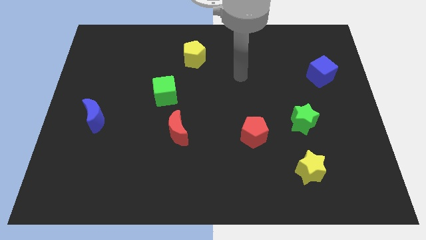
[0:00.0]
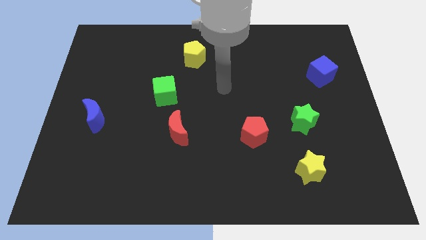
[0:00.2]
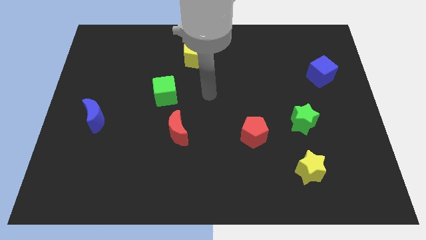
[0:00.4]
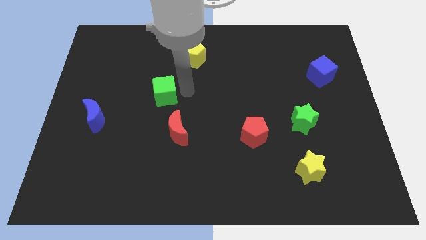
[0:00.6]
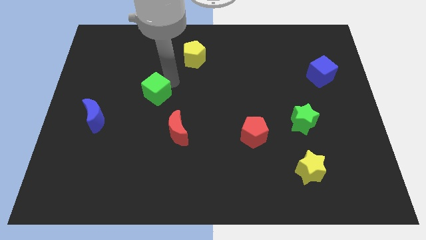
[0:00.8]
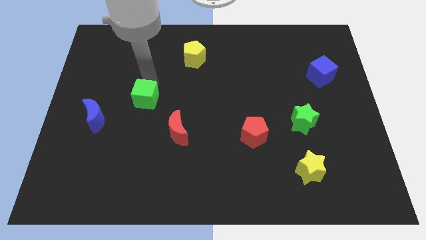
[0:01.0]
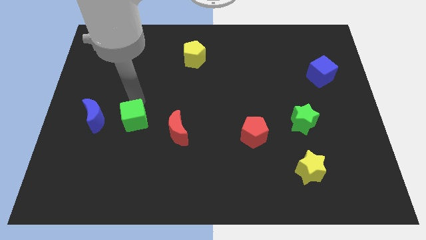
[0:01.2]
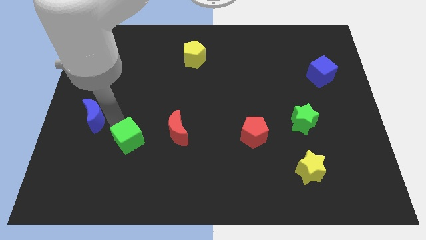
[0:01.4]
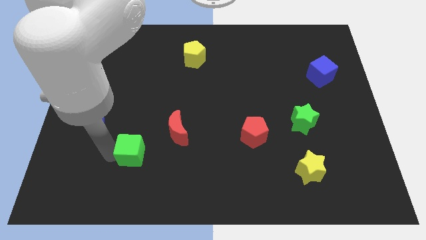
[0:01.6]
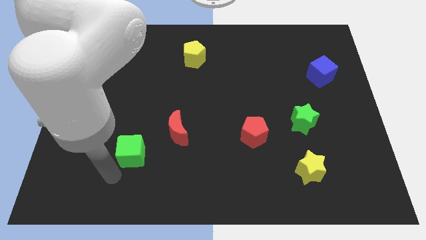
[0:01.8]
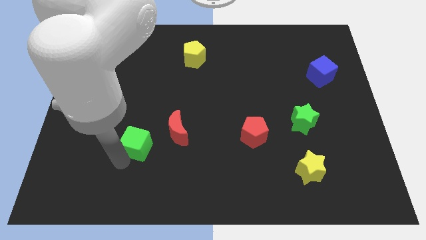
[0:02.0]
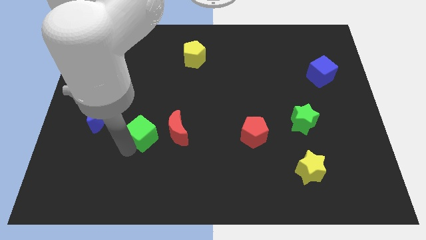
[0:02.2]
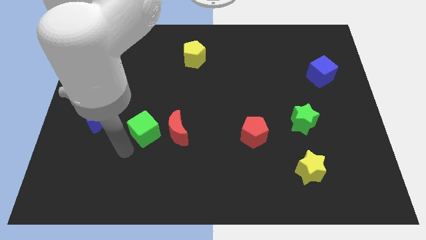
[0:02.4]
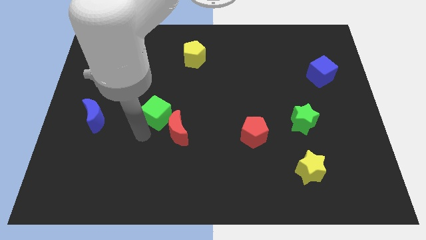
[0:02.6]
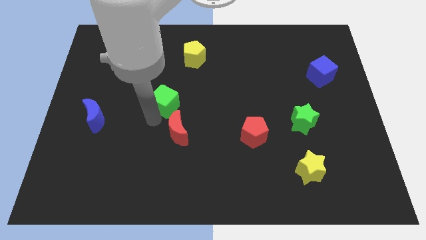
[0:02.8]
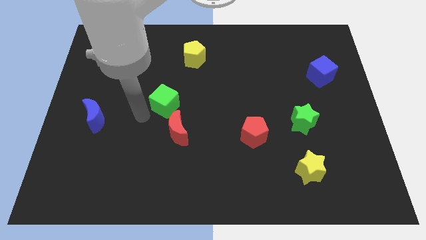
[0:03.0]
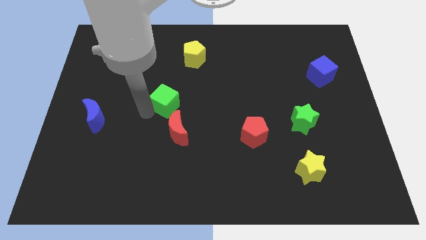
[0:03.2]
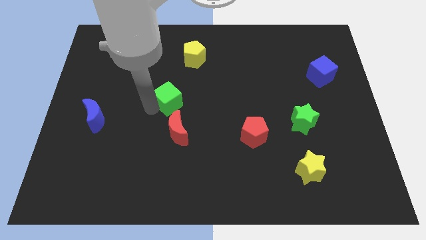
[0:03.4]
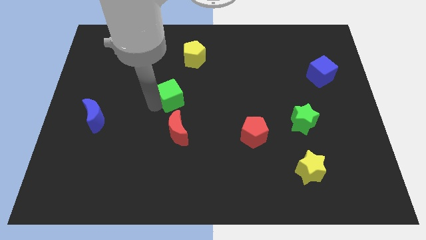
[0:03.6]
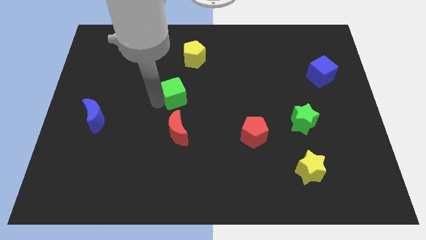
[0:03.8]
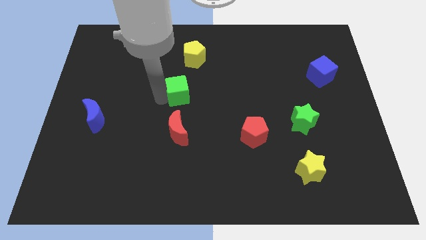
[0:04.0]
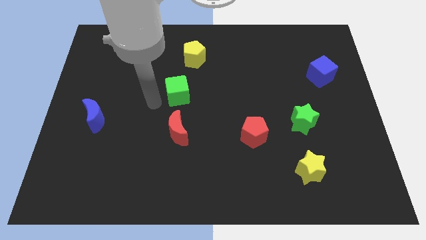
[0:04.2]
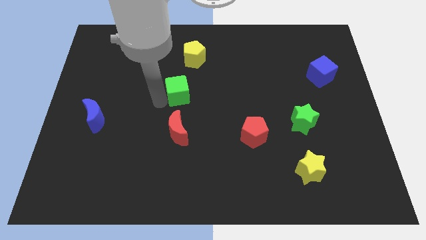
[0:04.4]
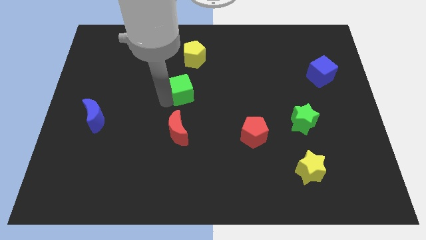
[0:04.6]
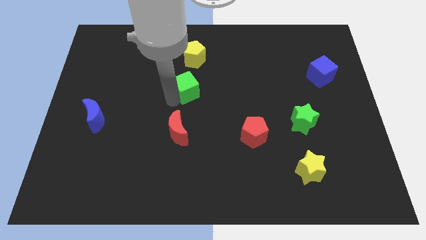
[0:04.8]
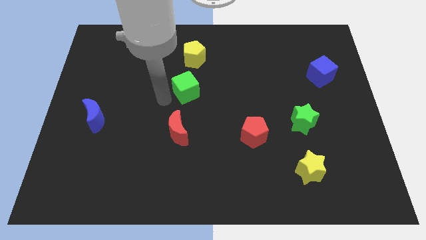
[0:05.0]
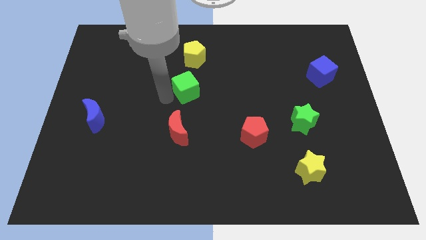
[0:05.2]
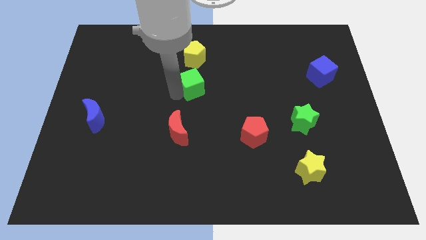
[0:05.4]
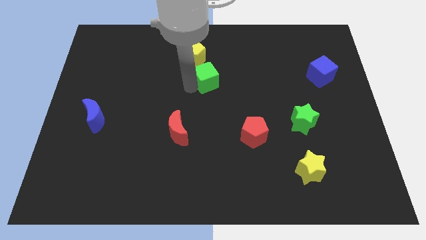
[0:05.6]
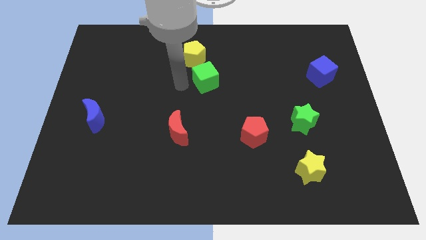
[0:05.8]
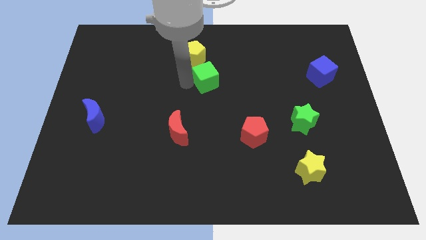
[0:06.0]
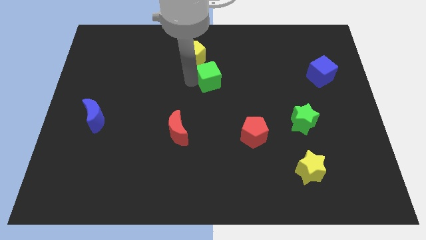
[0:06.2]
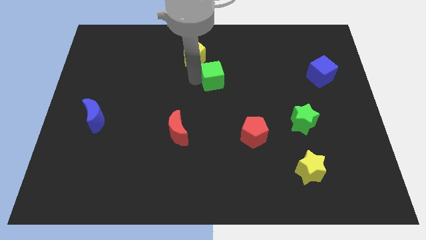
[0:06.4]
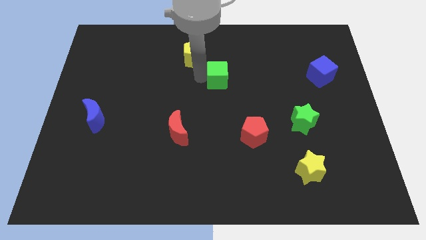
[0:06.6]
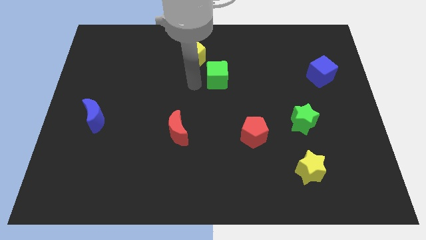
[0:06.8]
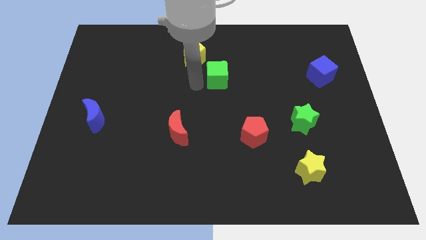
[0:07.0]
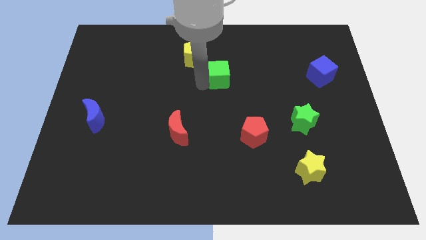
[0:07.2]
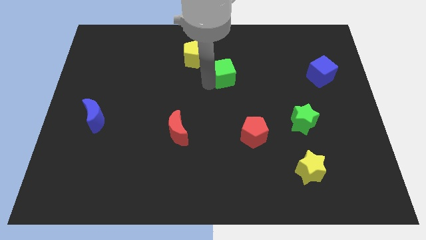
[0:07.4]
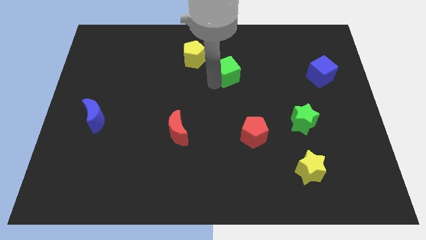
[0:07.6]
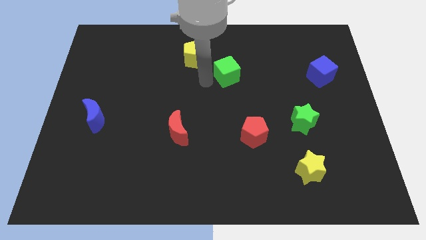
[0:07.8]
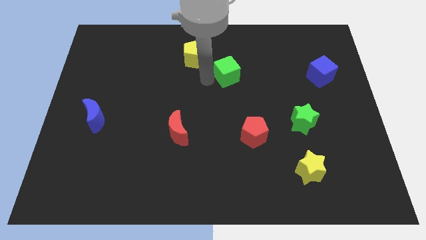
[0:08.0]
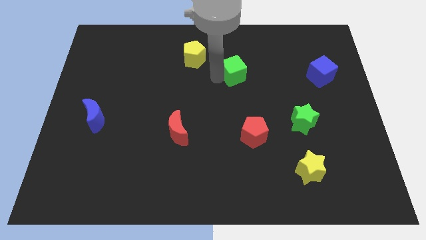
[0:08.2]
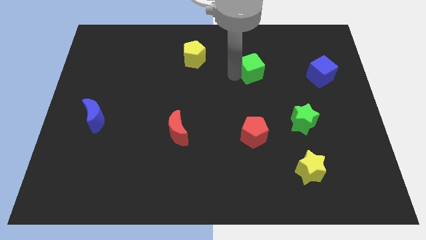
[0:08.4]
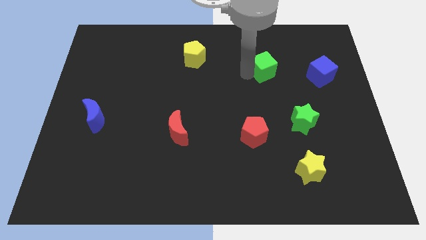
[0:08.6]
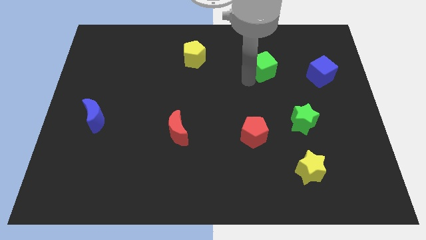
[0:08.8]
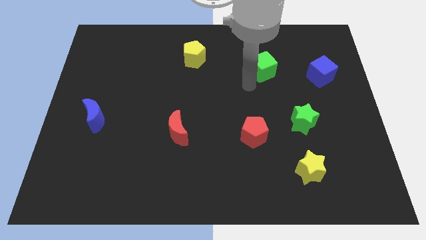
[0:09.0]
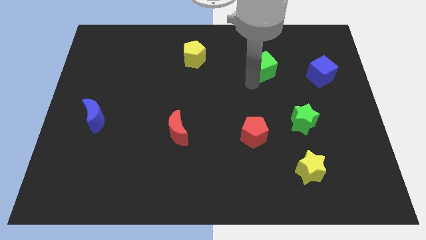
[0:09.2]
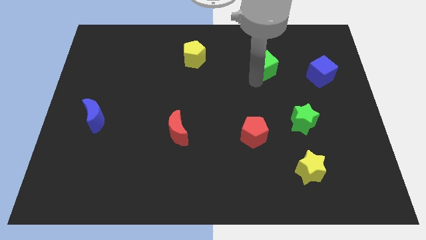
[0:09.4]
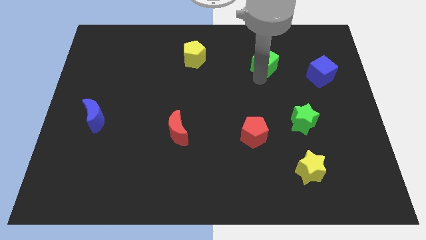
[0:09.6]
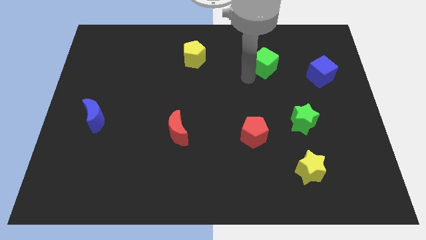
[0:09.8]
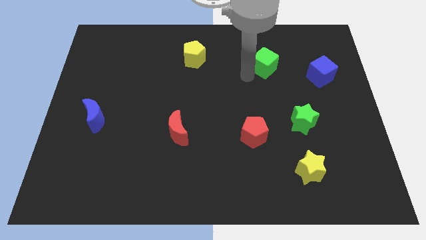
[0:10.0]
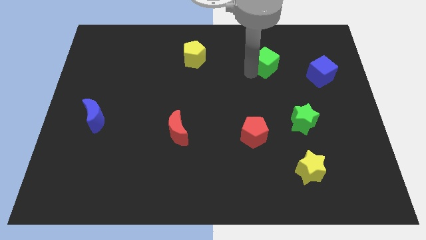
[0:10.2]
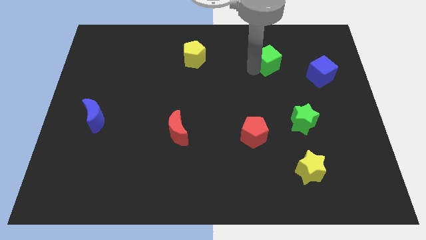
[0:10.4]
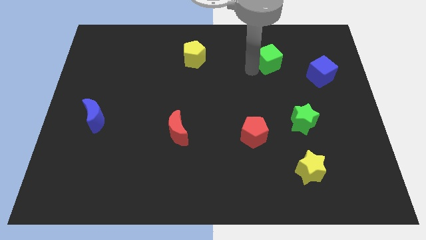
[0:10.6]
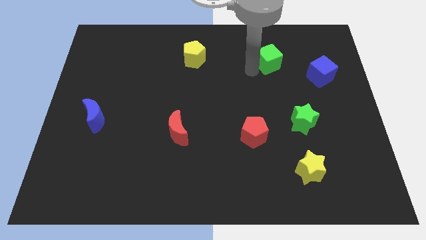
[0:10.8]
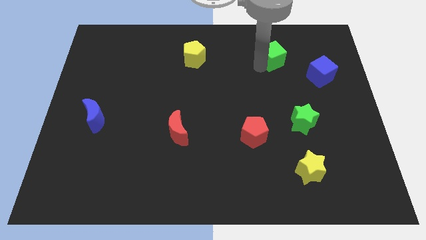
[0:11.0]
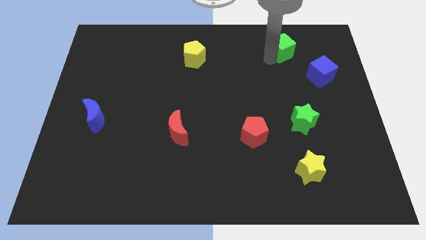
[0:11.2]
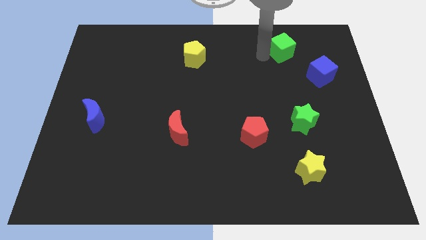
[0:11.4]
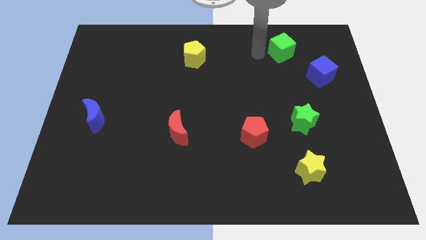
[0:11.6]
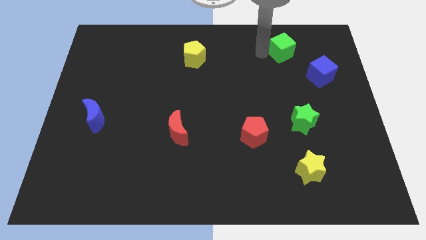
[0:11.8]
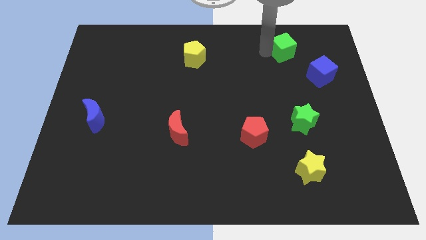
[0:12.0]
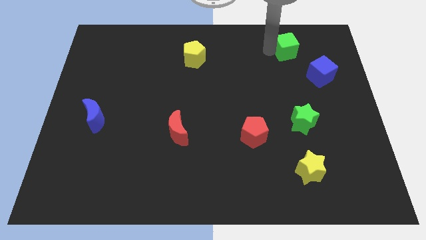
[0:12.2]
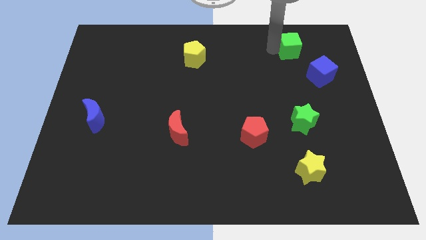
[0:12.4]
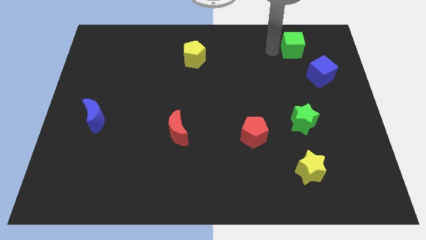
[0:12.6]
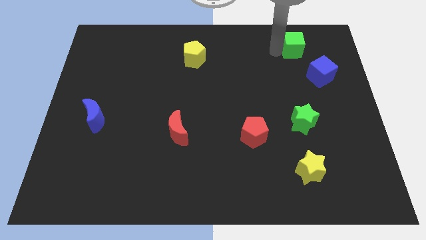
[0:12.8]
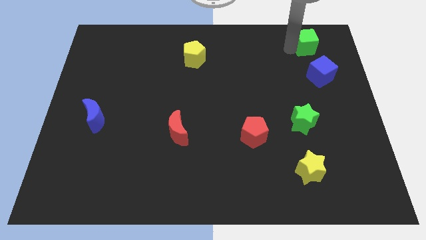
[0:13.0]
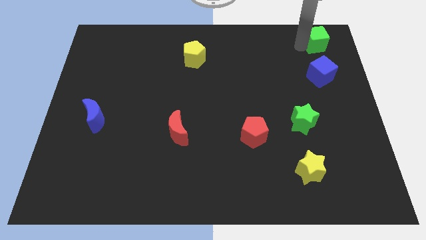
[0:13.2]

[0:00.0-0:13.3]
move the green cube to the top right corner
